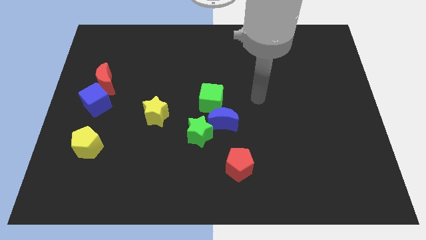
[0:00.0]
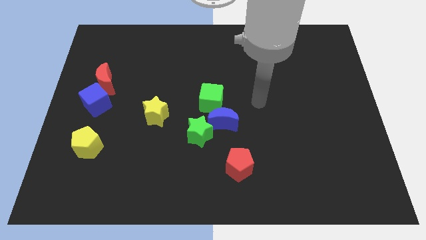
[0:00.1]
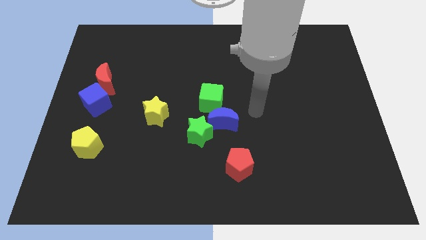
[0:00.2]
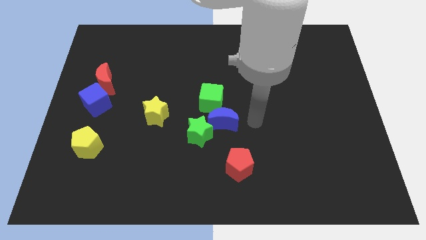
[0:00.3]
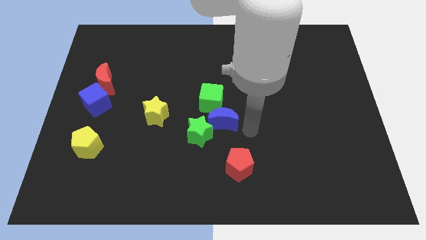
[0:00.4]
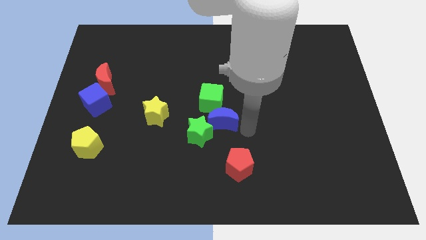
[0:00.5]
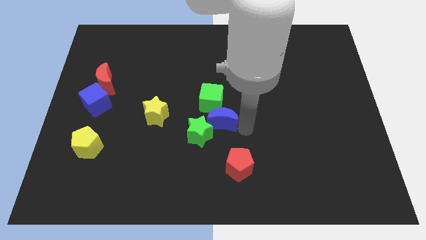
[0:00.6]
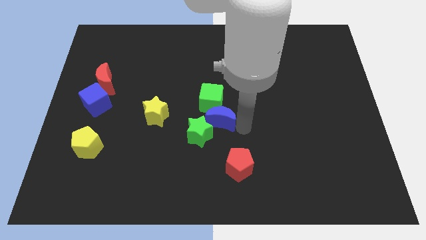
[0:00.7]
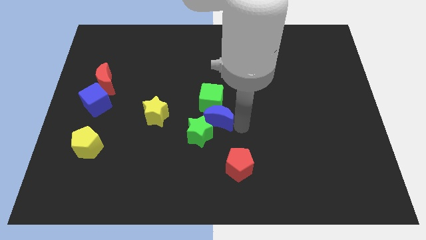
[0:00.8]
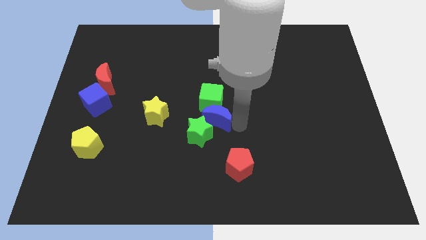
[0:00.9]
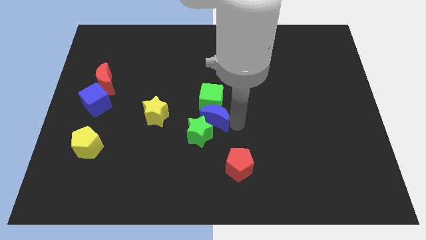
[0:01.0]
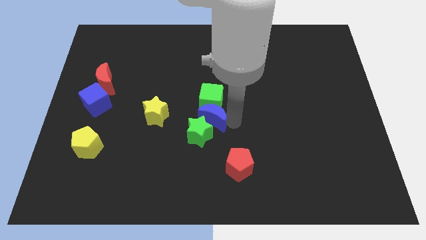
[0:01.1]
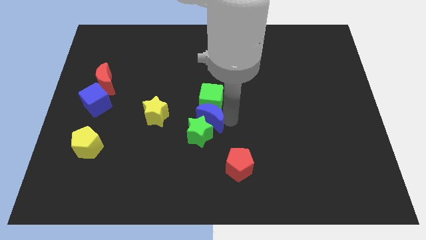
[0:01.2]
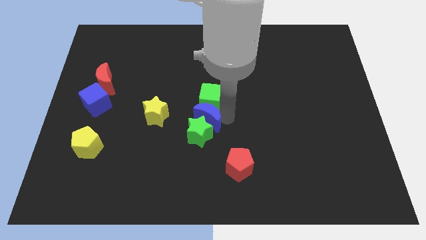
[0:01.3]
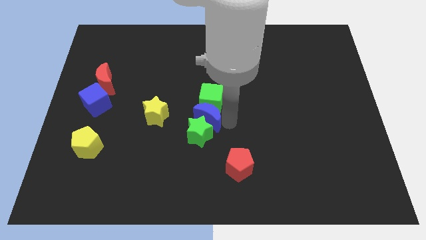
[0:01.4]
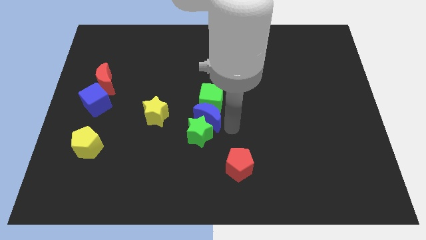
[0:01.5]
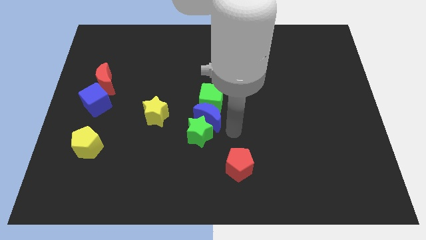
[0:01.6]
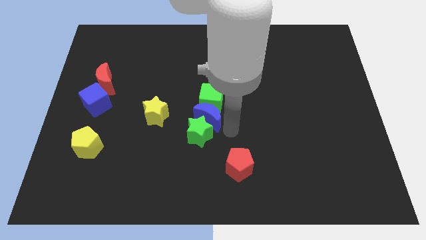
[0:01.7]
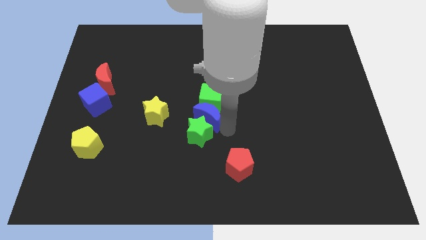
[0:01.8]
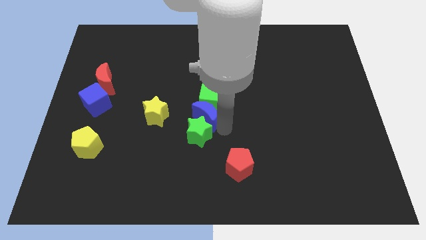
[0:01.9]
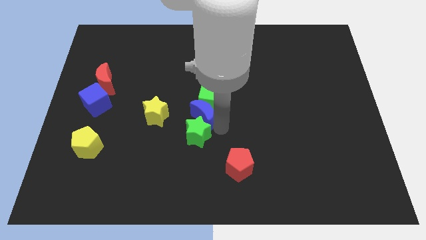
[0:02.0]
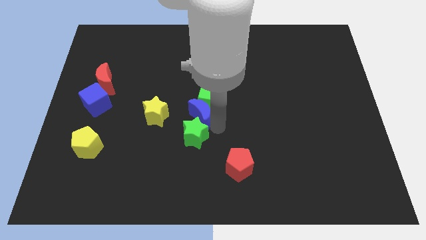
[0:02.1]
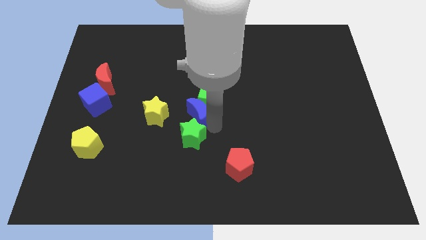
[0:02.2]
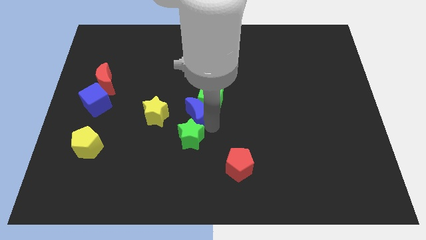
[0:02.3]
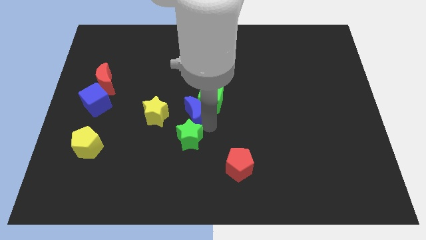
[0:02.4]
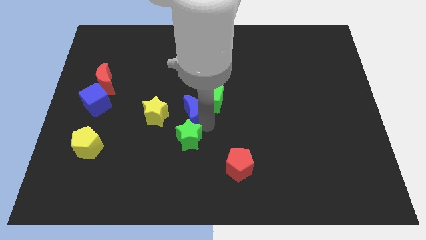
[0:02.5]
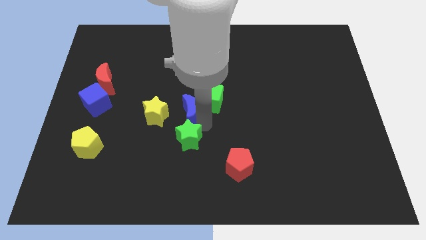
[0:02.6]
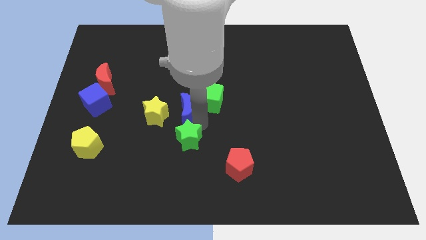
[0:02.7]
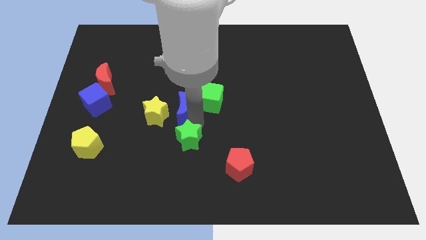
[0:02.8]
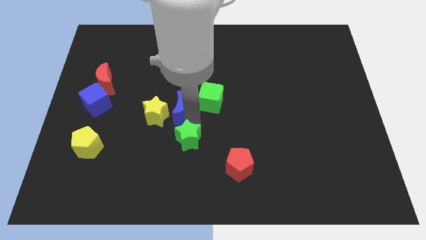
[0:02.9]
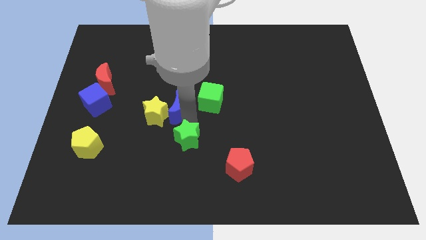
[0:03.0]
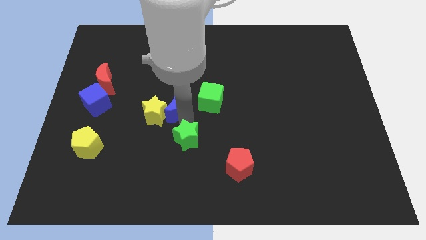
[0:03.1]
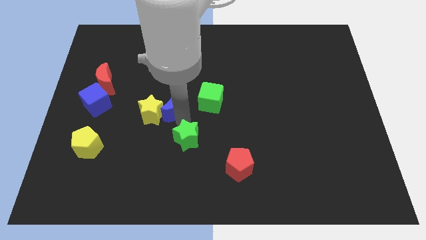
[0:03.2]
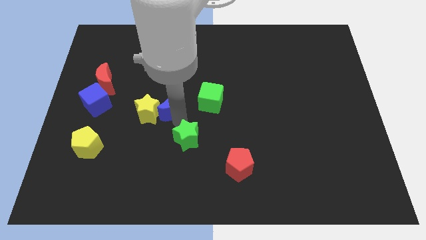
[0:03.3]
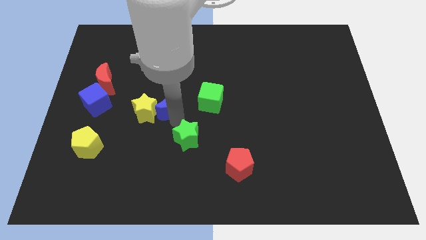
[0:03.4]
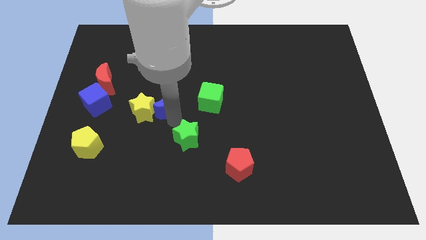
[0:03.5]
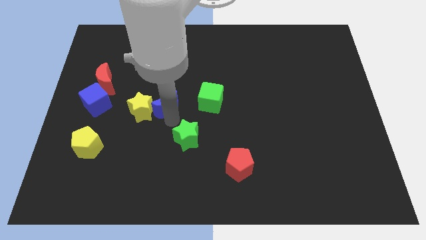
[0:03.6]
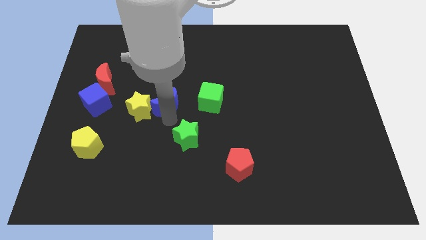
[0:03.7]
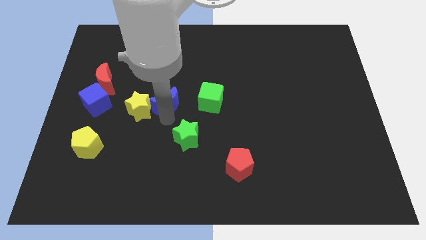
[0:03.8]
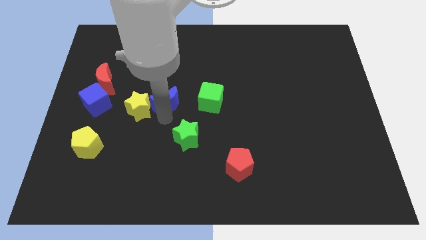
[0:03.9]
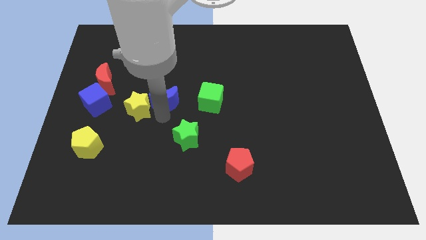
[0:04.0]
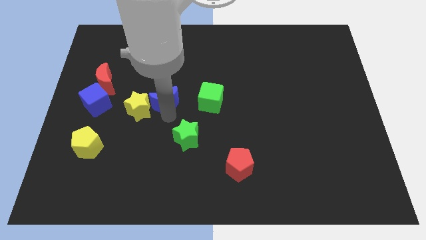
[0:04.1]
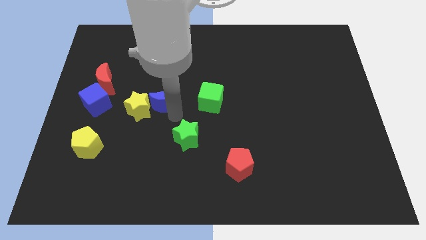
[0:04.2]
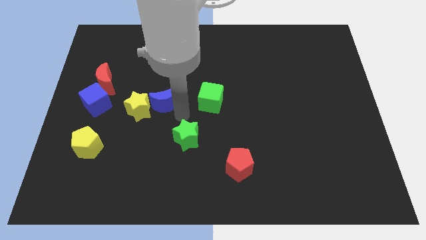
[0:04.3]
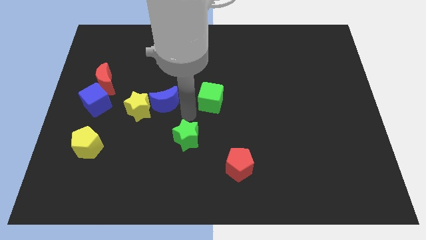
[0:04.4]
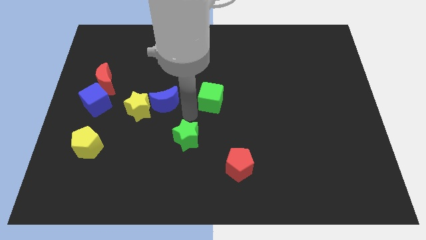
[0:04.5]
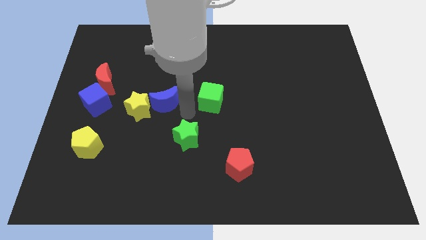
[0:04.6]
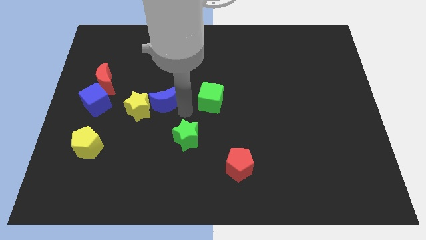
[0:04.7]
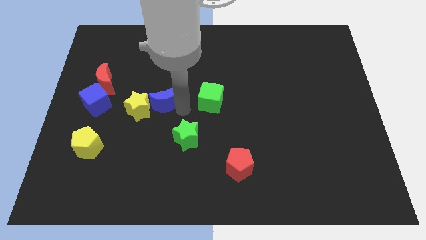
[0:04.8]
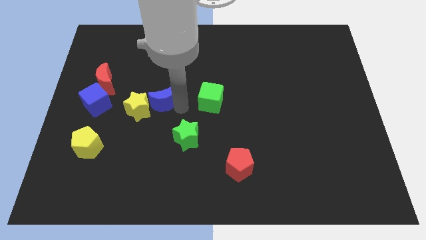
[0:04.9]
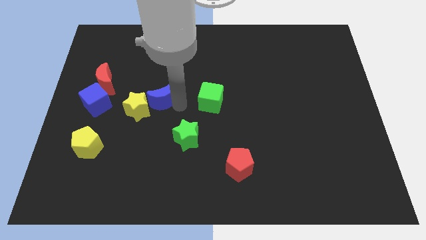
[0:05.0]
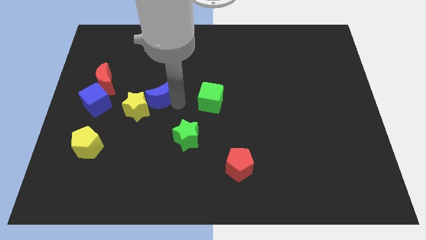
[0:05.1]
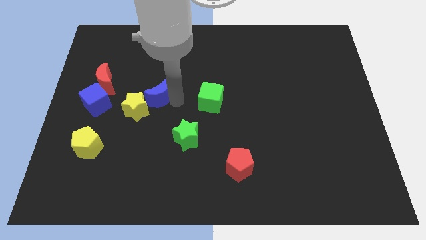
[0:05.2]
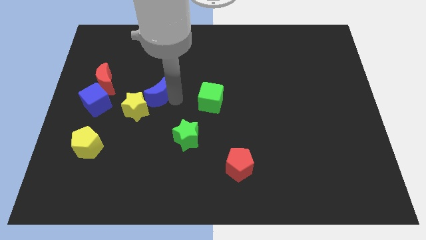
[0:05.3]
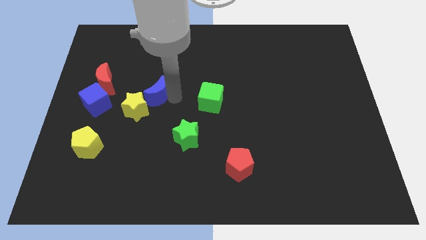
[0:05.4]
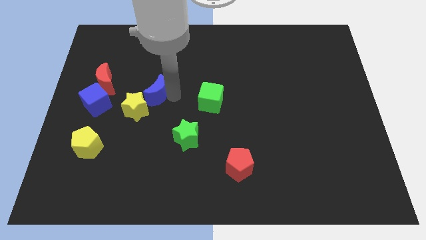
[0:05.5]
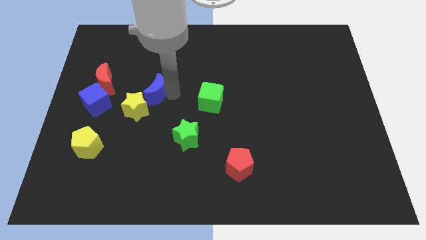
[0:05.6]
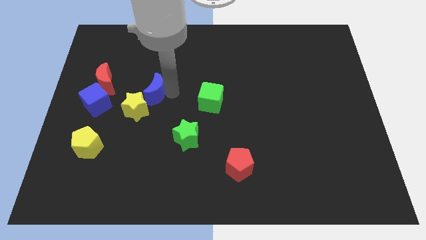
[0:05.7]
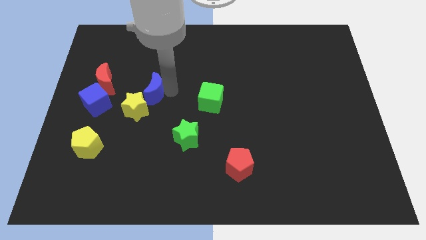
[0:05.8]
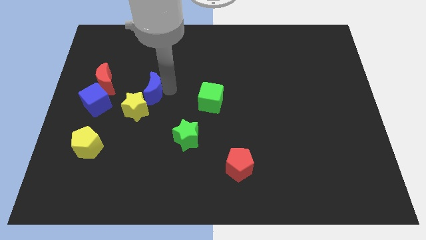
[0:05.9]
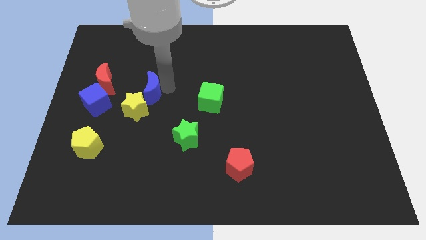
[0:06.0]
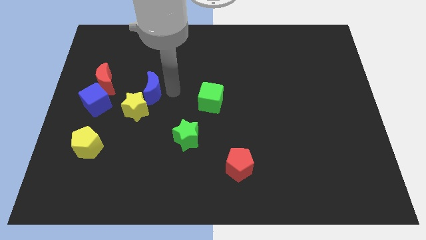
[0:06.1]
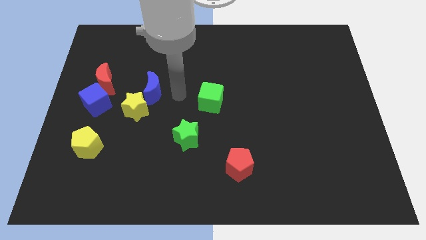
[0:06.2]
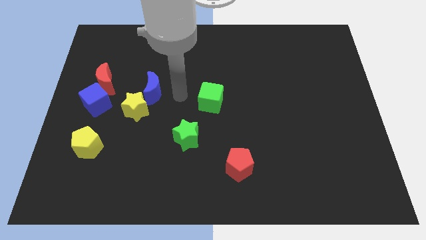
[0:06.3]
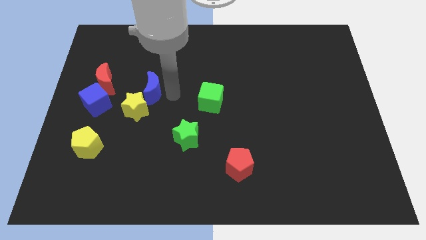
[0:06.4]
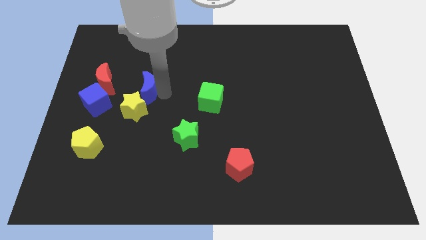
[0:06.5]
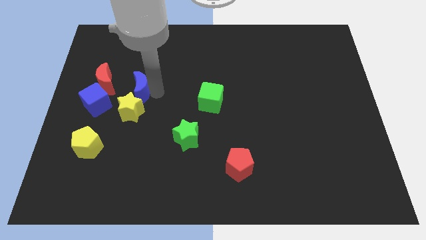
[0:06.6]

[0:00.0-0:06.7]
put the blue moon to the top right of the blue cube

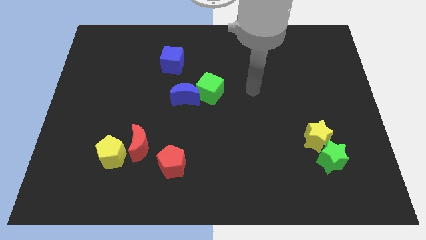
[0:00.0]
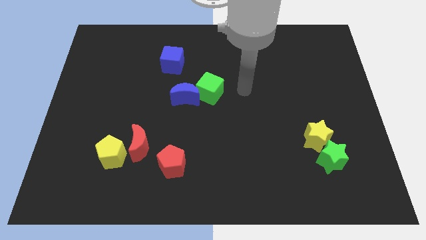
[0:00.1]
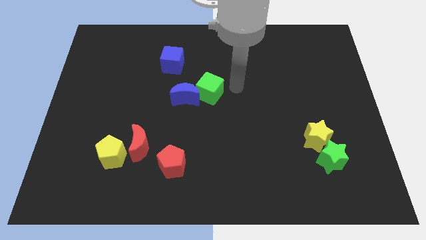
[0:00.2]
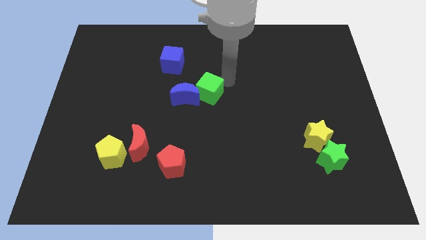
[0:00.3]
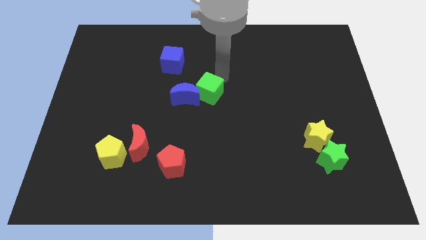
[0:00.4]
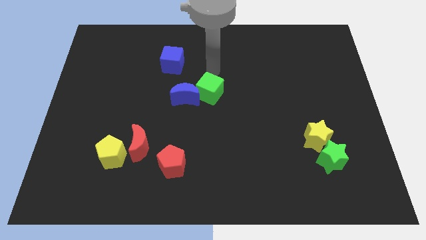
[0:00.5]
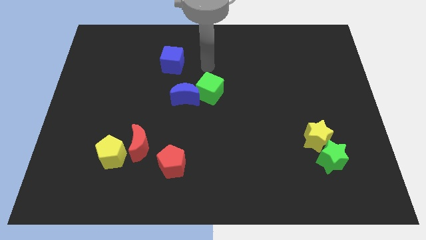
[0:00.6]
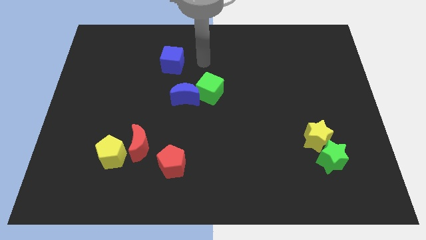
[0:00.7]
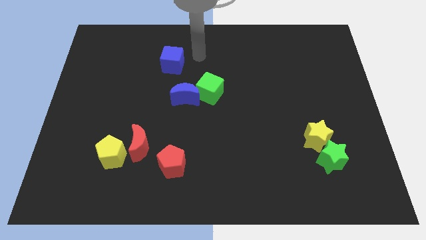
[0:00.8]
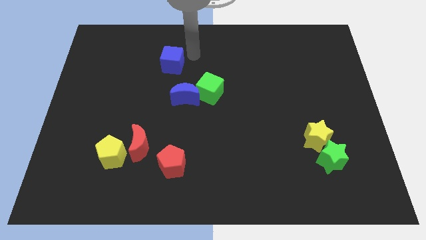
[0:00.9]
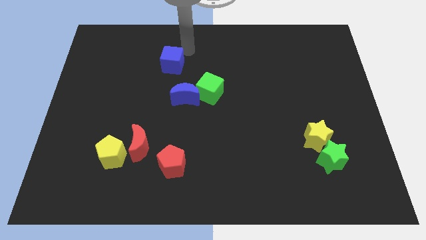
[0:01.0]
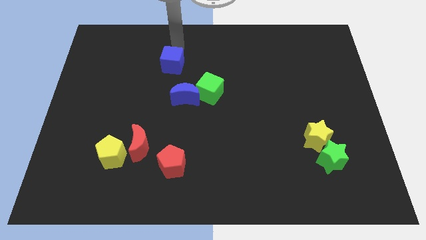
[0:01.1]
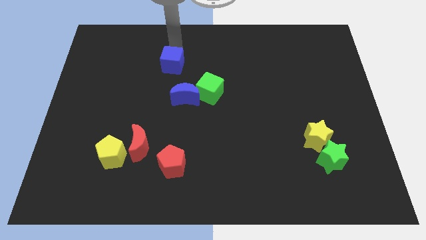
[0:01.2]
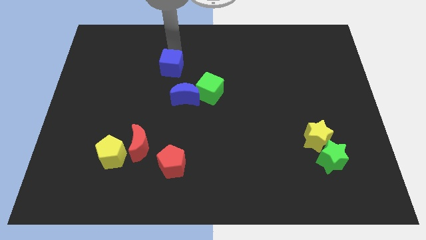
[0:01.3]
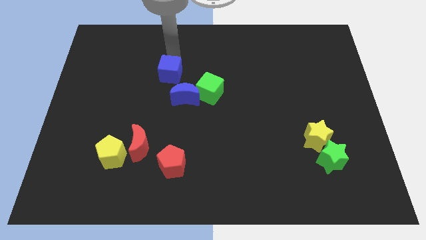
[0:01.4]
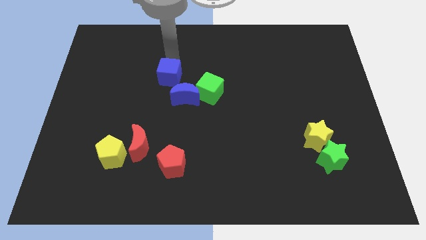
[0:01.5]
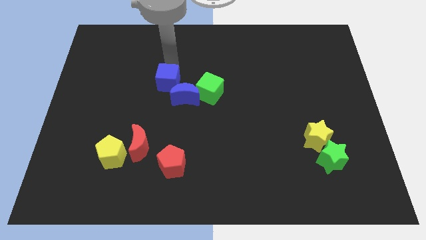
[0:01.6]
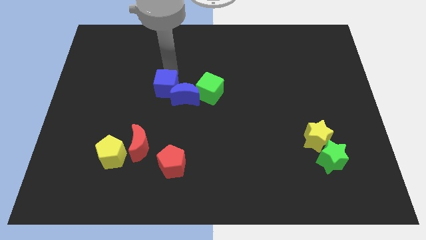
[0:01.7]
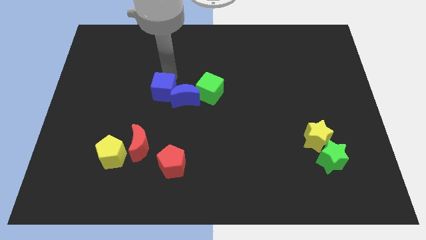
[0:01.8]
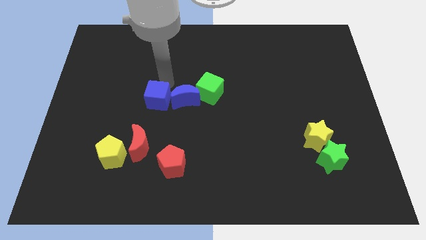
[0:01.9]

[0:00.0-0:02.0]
push the blue cube to the bottom left side of the blue moon
